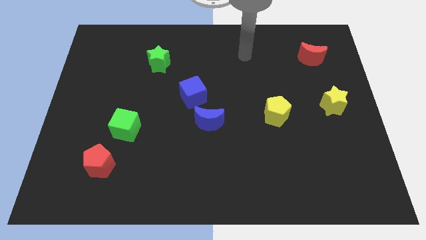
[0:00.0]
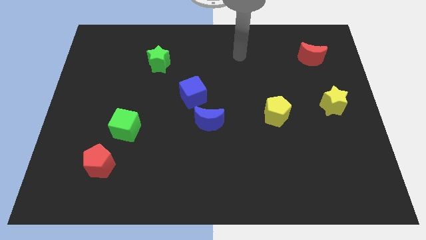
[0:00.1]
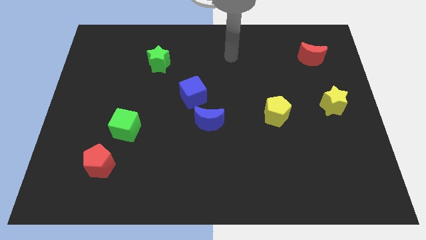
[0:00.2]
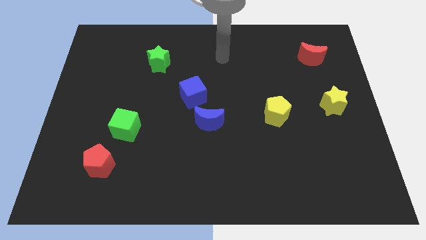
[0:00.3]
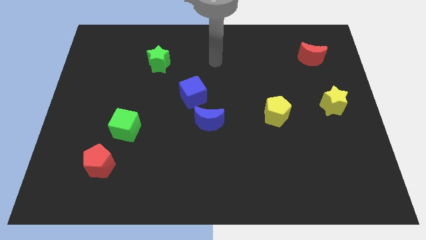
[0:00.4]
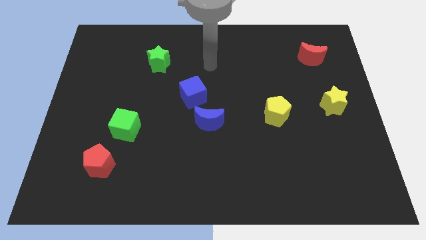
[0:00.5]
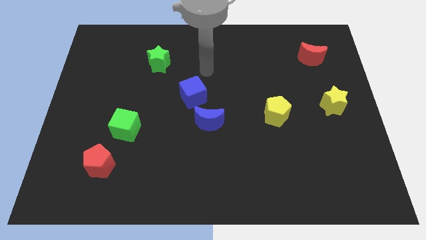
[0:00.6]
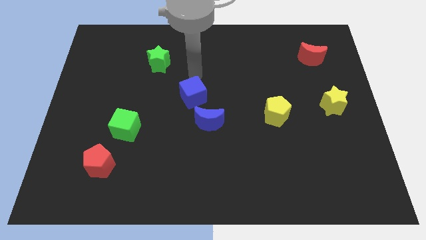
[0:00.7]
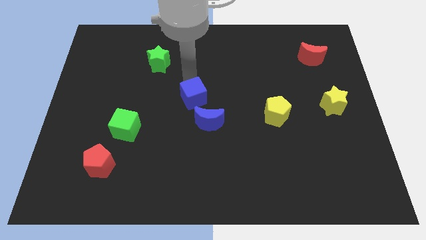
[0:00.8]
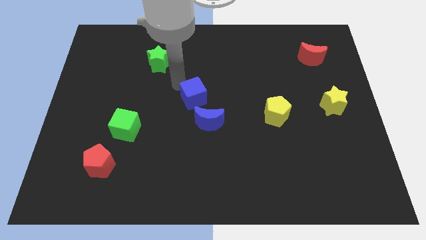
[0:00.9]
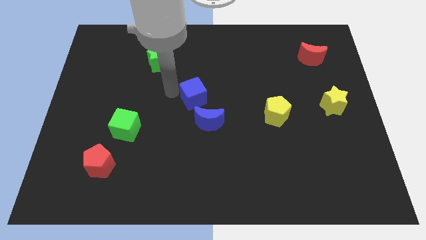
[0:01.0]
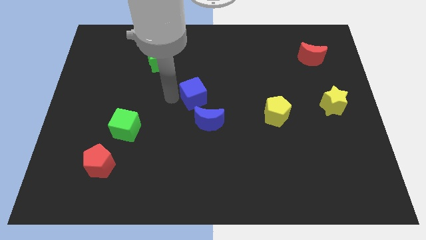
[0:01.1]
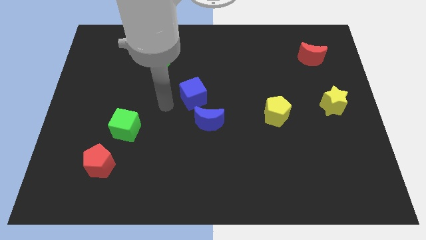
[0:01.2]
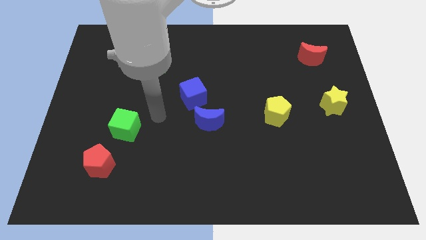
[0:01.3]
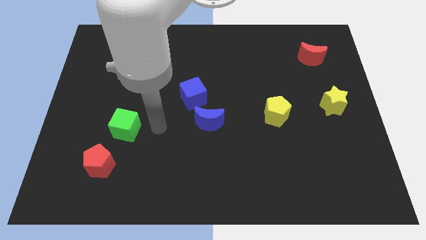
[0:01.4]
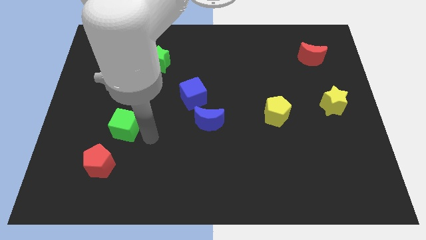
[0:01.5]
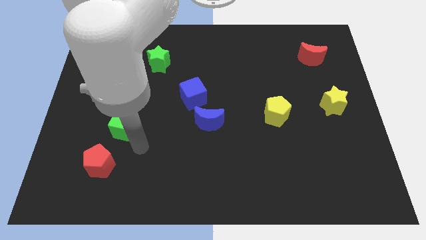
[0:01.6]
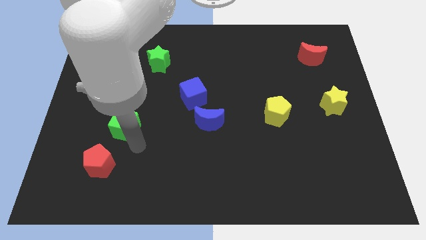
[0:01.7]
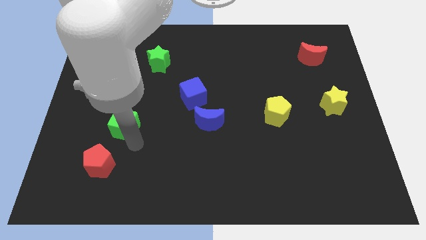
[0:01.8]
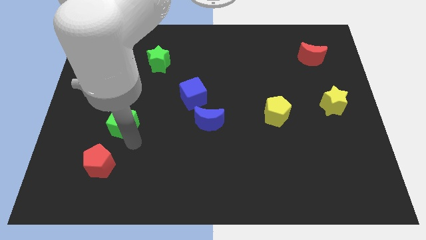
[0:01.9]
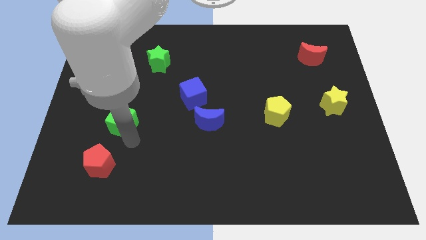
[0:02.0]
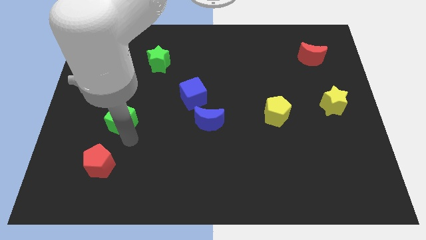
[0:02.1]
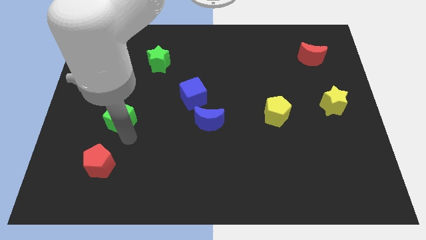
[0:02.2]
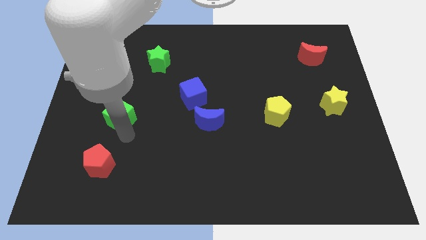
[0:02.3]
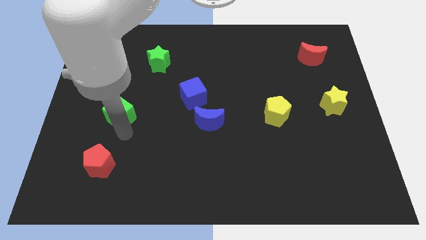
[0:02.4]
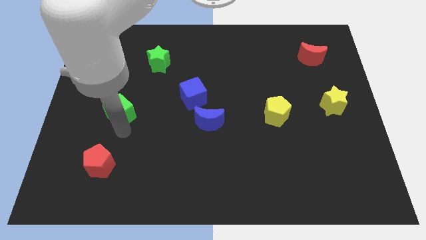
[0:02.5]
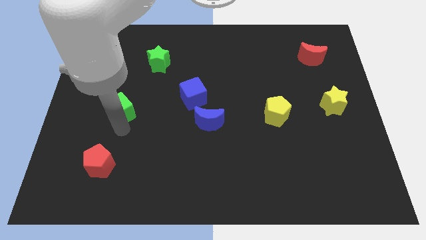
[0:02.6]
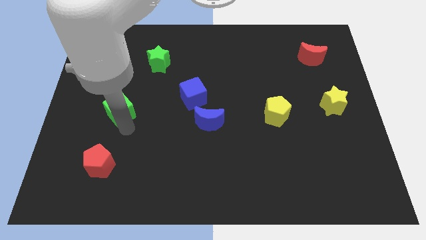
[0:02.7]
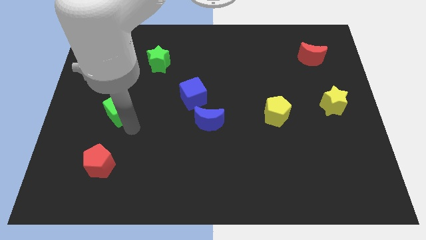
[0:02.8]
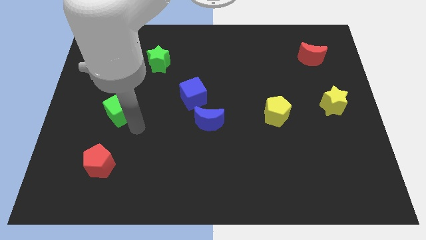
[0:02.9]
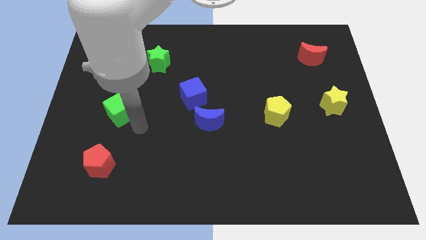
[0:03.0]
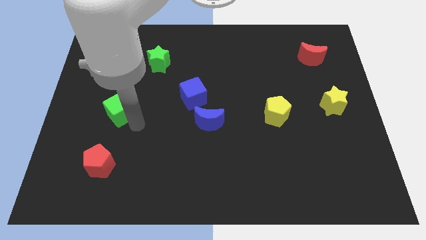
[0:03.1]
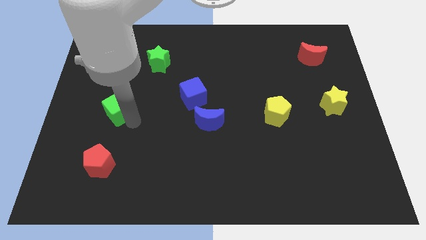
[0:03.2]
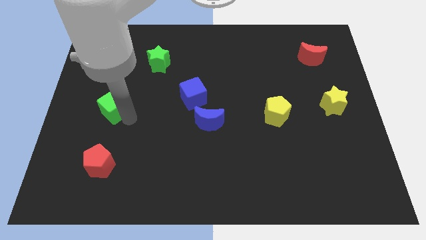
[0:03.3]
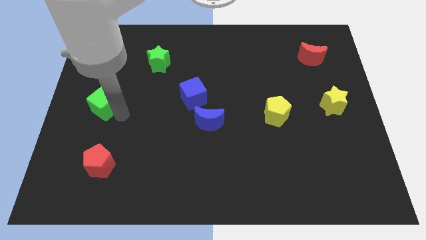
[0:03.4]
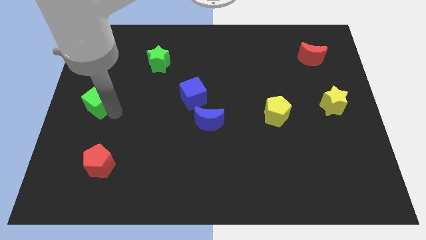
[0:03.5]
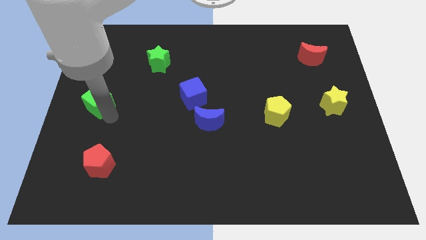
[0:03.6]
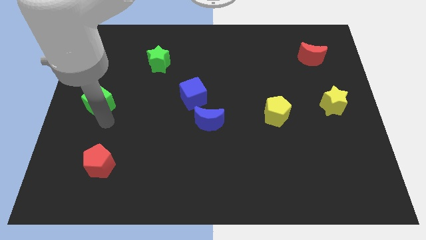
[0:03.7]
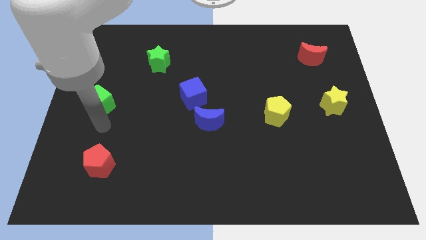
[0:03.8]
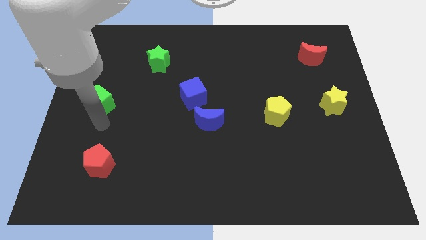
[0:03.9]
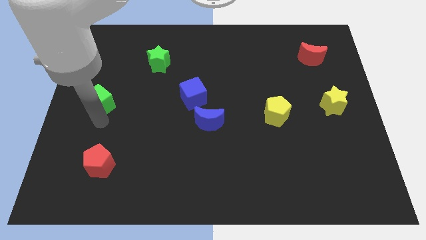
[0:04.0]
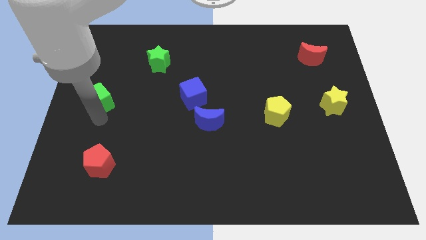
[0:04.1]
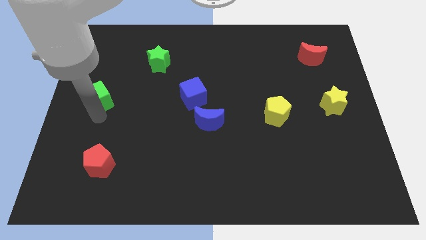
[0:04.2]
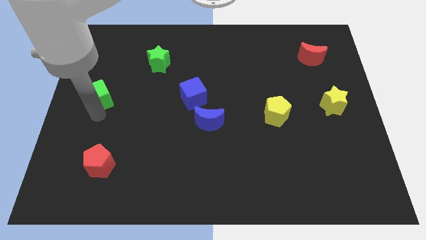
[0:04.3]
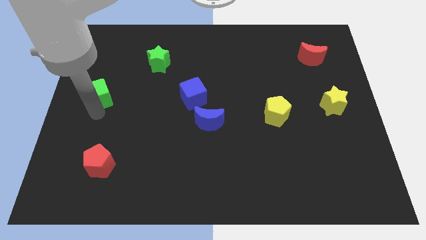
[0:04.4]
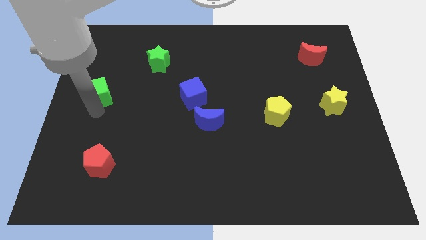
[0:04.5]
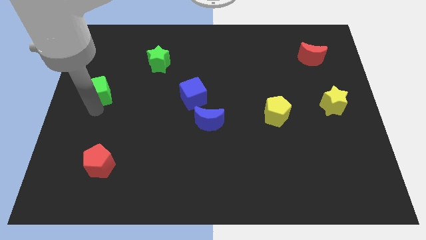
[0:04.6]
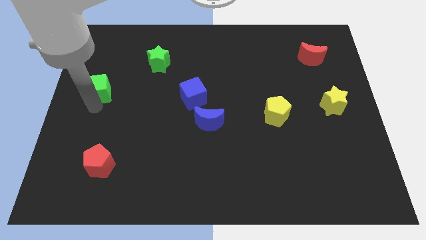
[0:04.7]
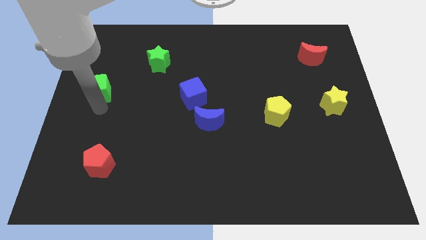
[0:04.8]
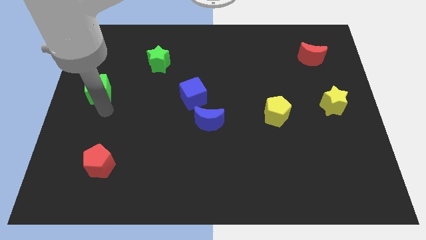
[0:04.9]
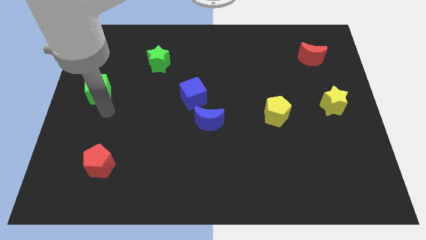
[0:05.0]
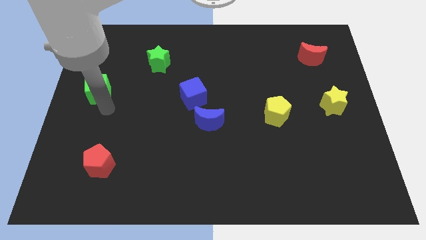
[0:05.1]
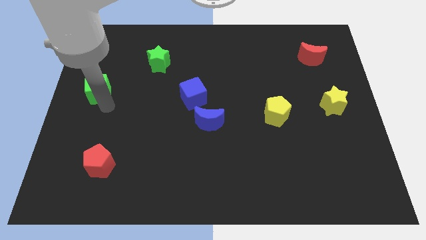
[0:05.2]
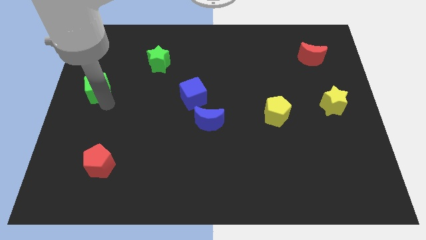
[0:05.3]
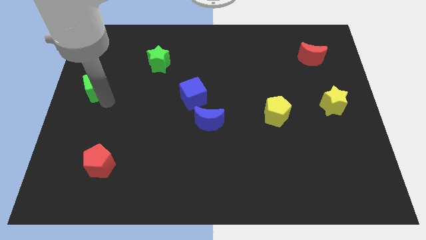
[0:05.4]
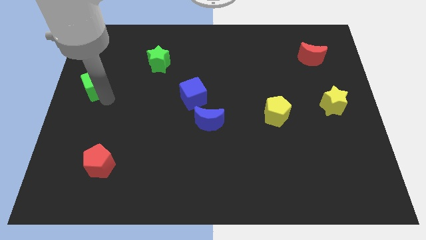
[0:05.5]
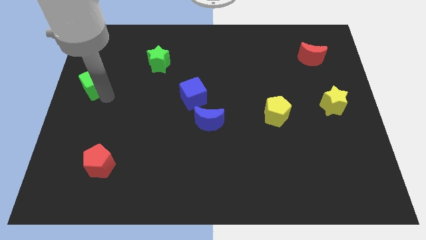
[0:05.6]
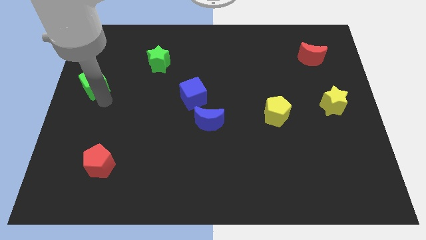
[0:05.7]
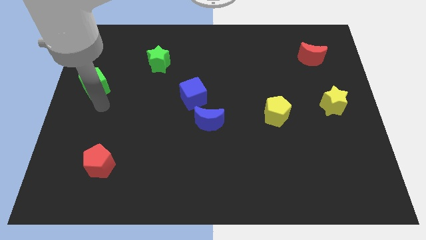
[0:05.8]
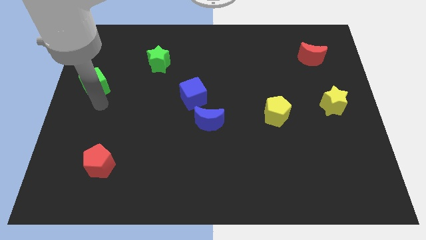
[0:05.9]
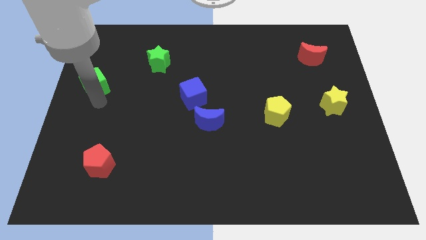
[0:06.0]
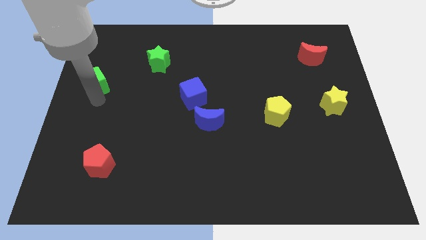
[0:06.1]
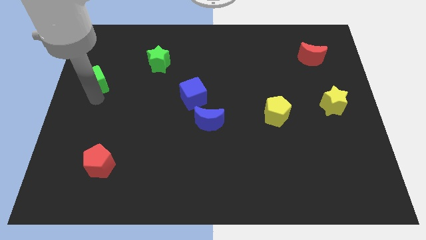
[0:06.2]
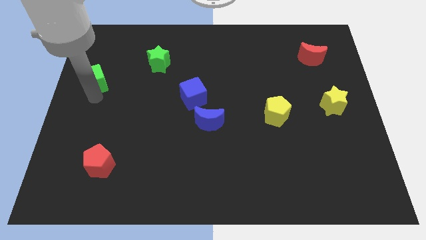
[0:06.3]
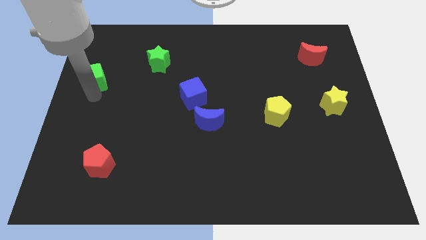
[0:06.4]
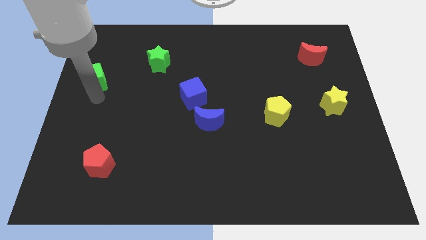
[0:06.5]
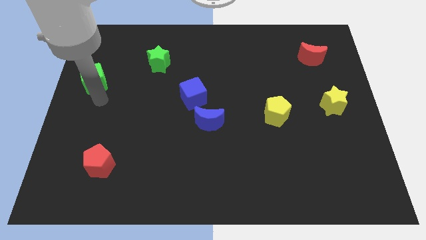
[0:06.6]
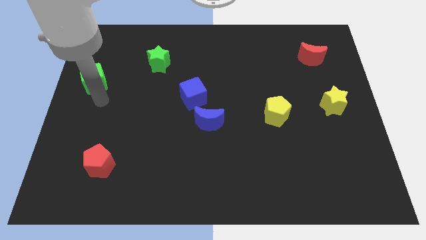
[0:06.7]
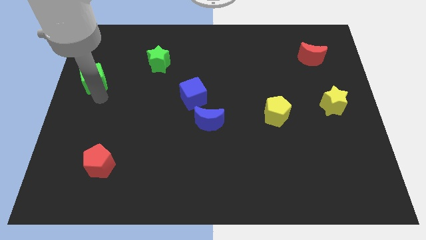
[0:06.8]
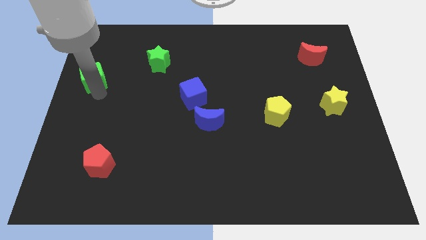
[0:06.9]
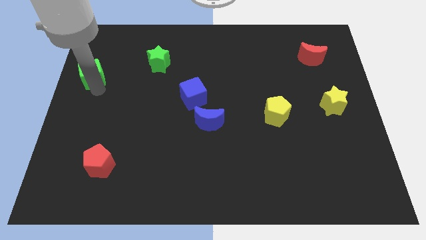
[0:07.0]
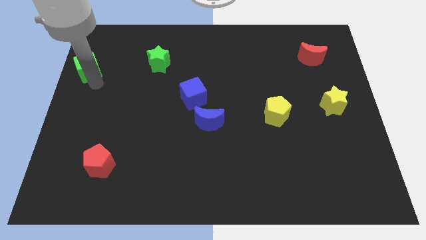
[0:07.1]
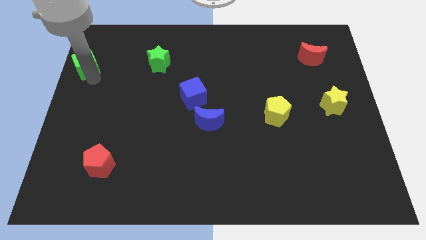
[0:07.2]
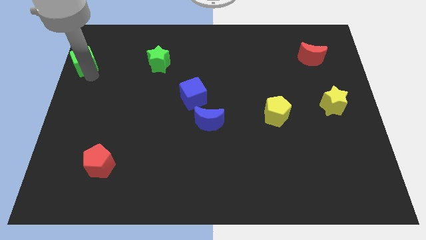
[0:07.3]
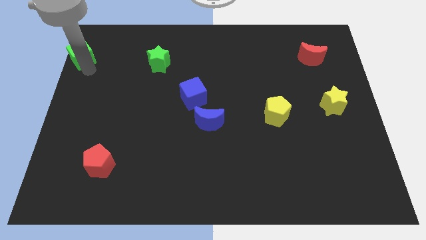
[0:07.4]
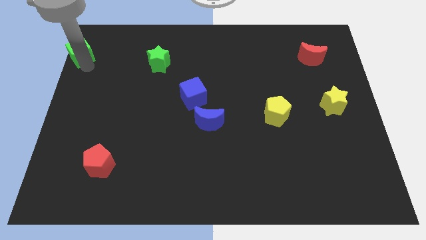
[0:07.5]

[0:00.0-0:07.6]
slide the green cube to the upper left corner
